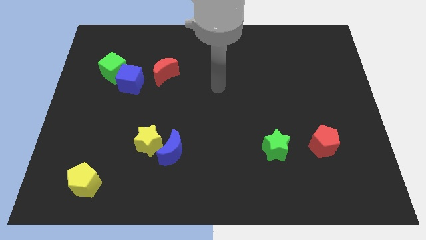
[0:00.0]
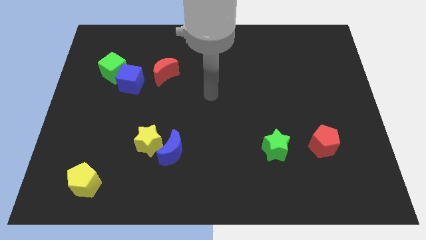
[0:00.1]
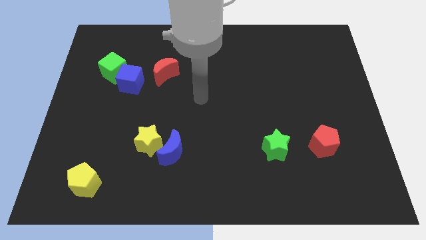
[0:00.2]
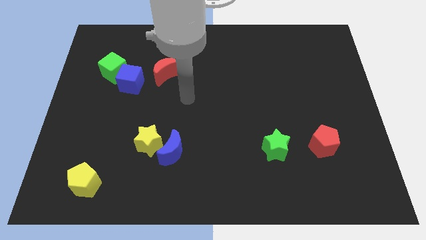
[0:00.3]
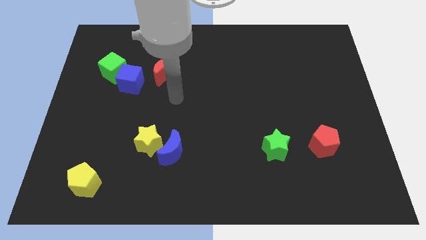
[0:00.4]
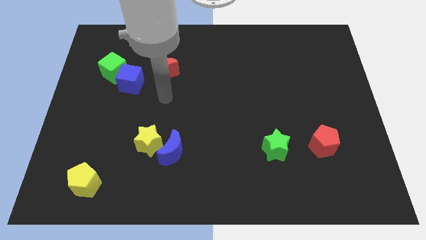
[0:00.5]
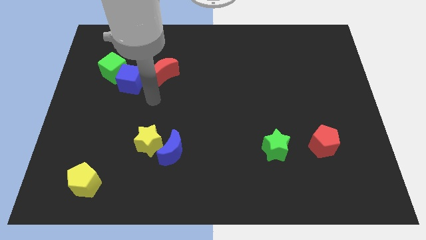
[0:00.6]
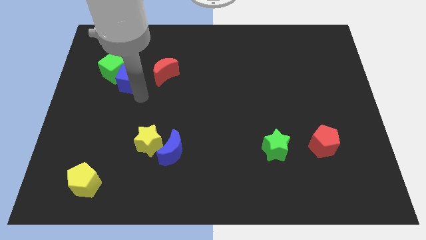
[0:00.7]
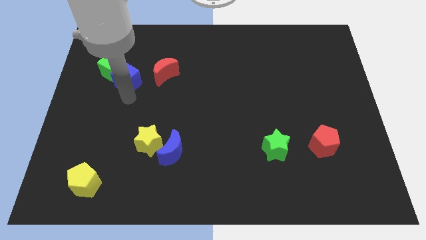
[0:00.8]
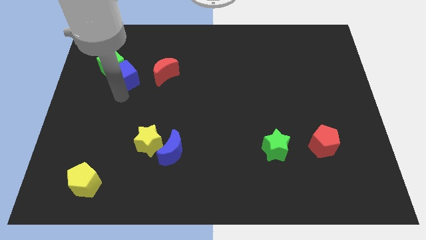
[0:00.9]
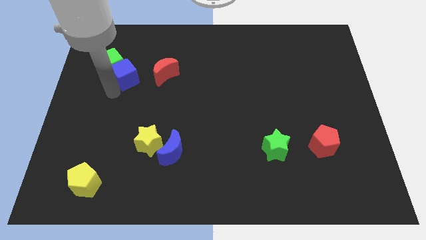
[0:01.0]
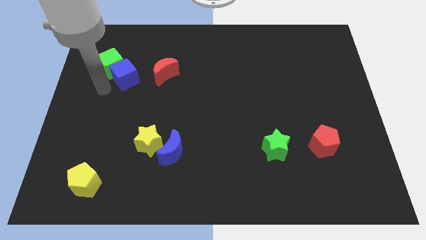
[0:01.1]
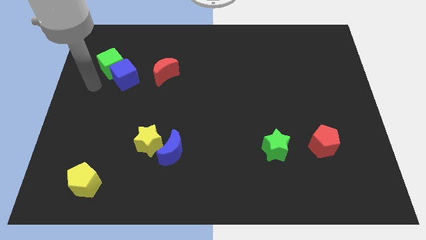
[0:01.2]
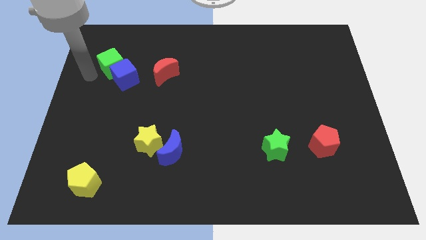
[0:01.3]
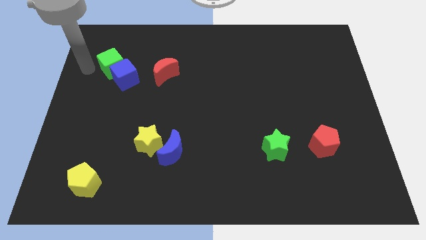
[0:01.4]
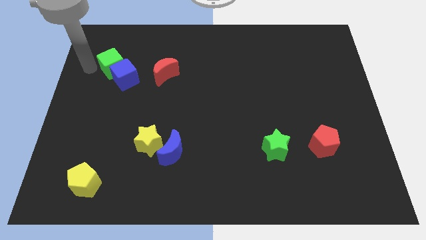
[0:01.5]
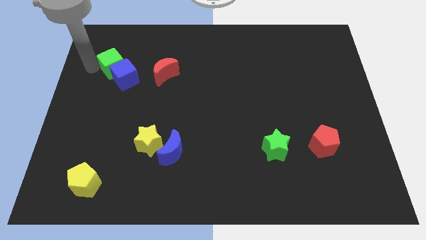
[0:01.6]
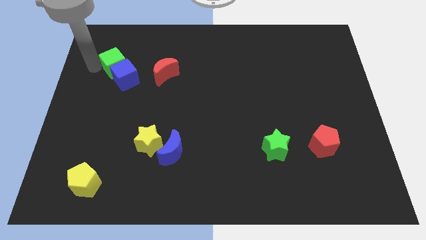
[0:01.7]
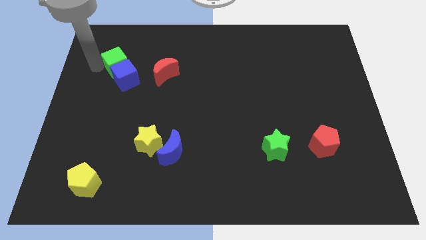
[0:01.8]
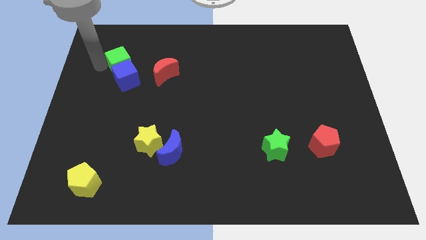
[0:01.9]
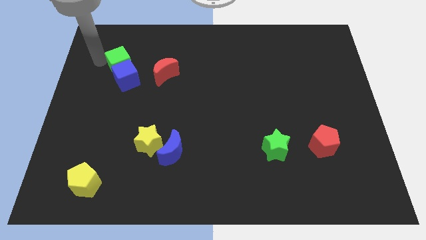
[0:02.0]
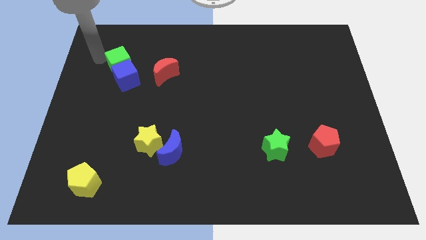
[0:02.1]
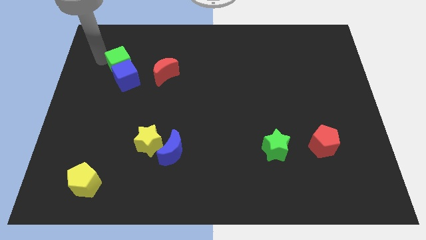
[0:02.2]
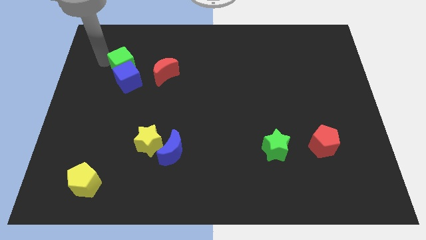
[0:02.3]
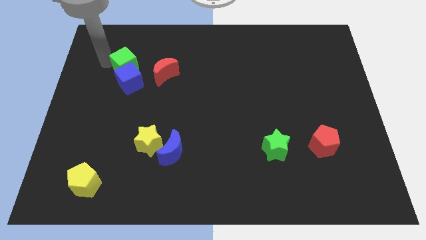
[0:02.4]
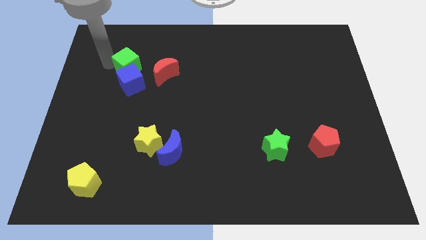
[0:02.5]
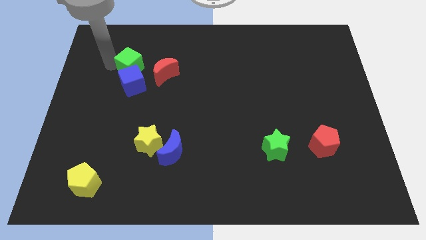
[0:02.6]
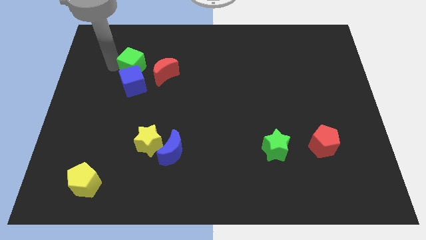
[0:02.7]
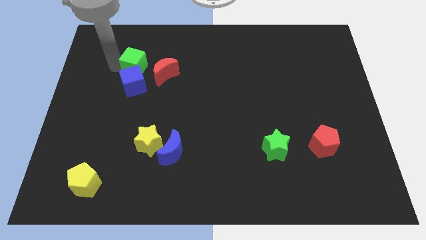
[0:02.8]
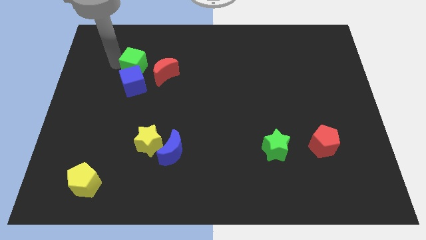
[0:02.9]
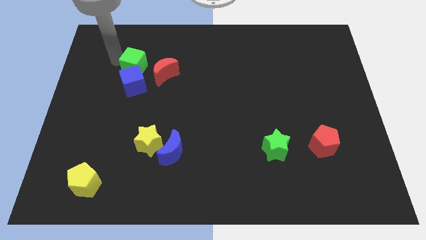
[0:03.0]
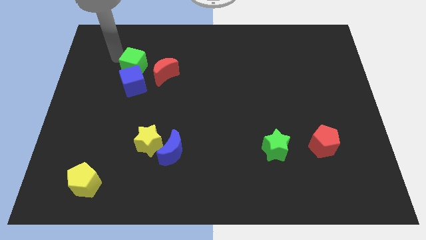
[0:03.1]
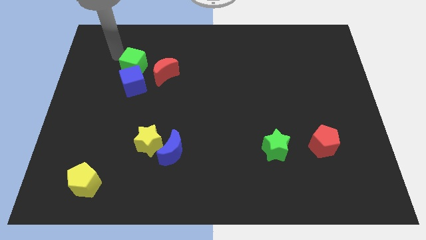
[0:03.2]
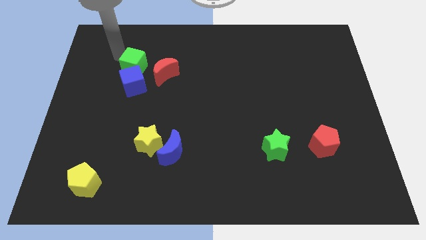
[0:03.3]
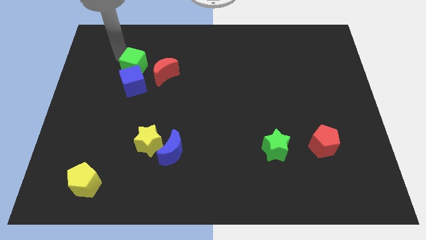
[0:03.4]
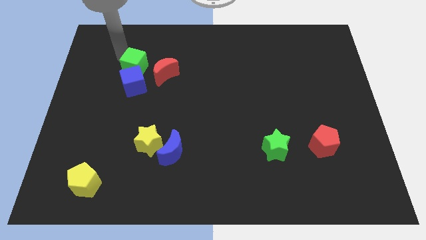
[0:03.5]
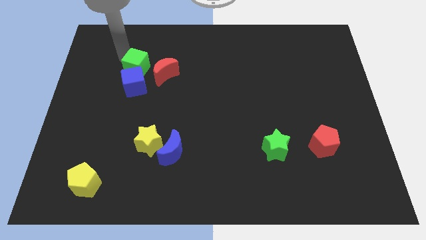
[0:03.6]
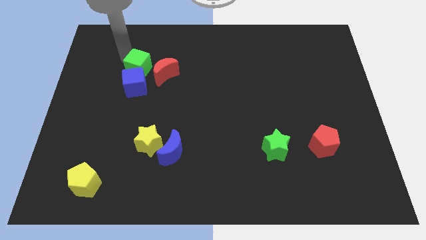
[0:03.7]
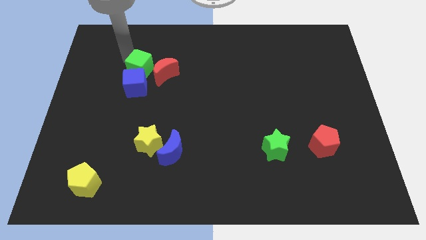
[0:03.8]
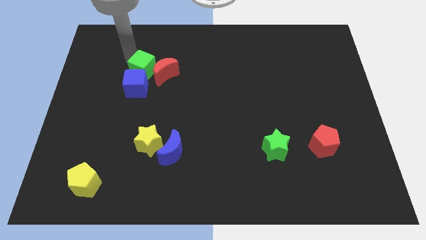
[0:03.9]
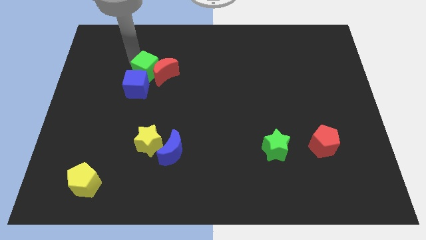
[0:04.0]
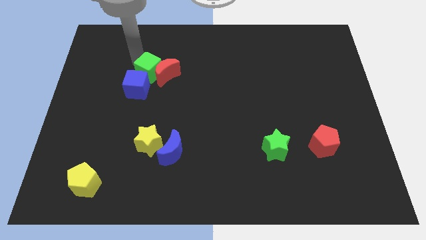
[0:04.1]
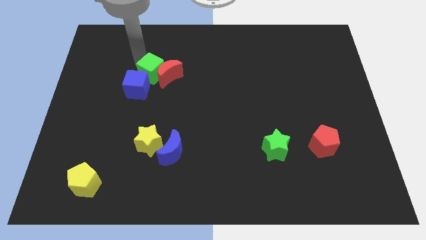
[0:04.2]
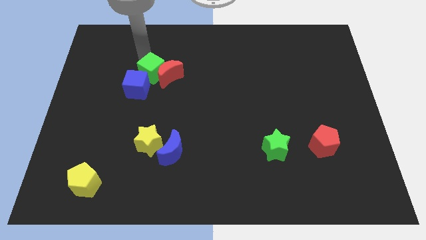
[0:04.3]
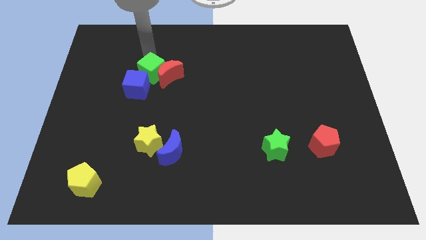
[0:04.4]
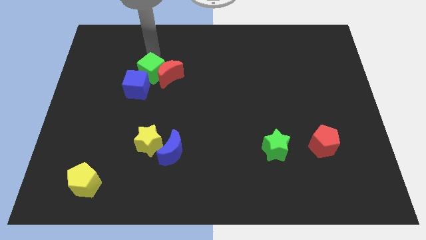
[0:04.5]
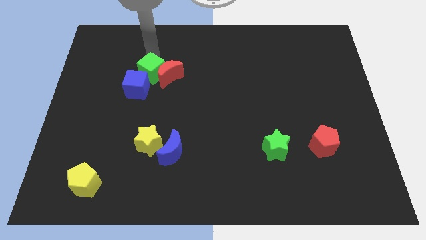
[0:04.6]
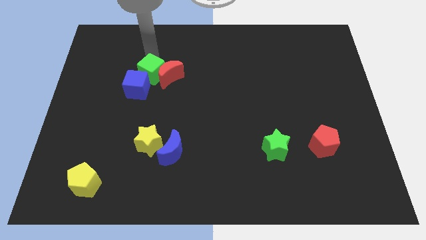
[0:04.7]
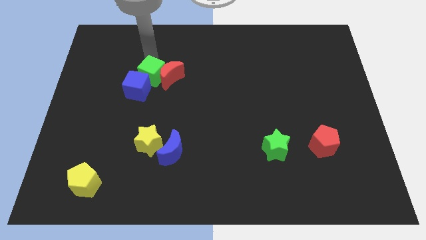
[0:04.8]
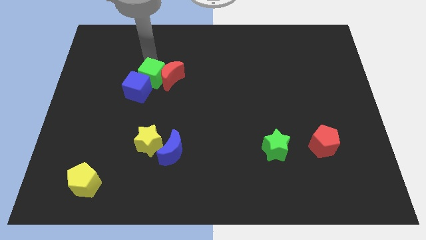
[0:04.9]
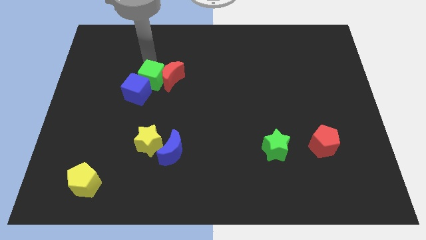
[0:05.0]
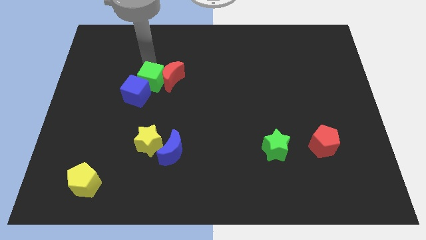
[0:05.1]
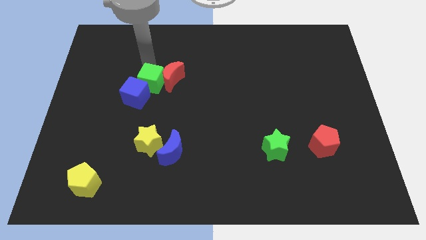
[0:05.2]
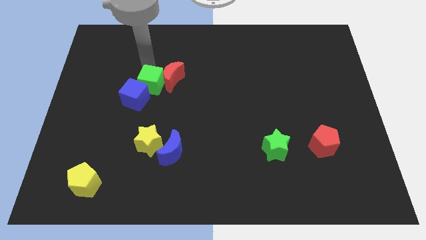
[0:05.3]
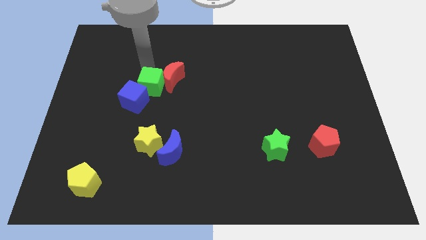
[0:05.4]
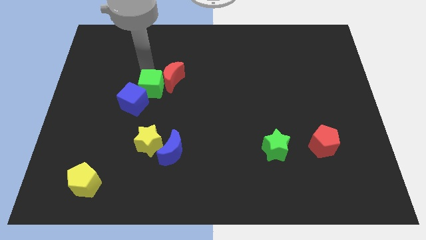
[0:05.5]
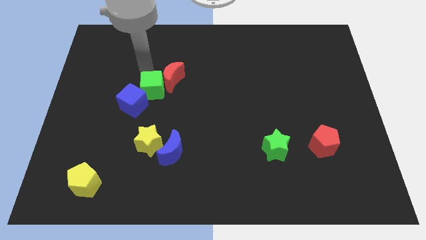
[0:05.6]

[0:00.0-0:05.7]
put the green cube to the top of the yellow star
